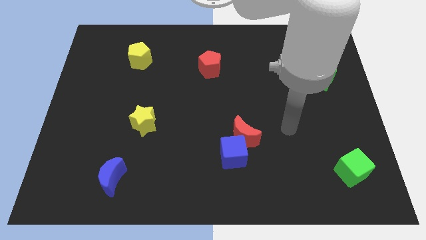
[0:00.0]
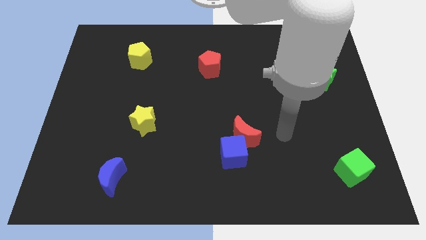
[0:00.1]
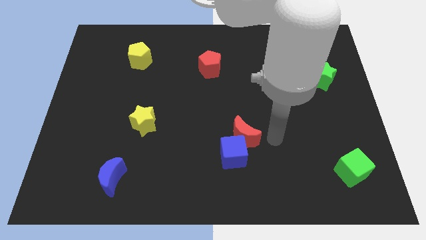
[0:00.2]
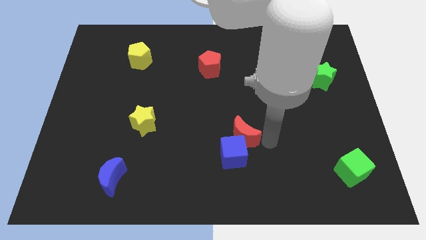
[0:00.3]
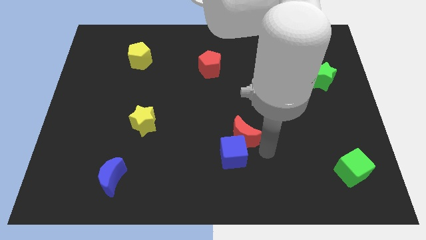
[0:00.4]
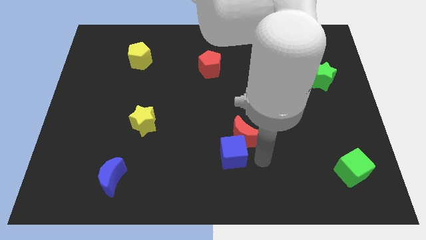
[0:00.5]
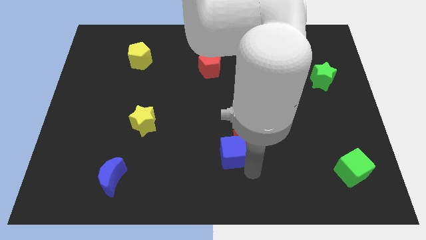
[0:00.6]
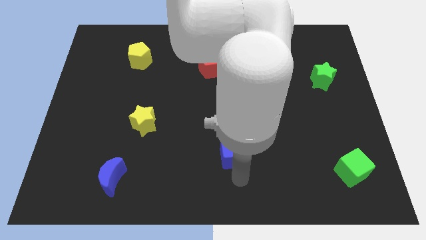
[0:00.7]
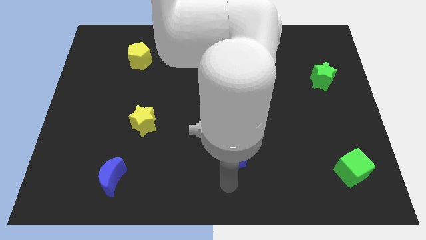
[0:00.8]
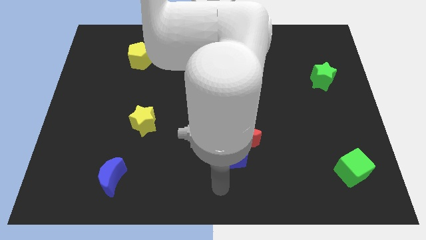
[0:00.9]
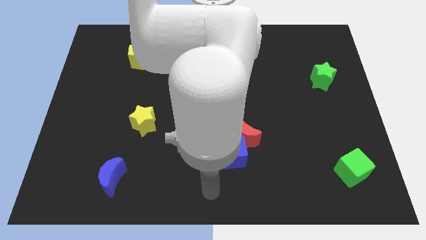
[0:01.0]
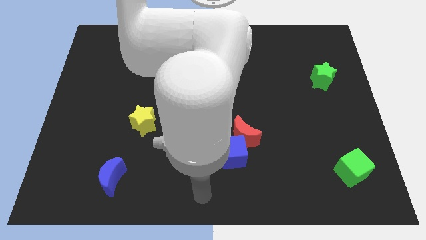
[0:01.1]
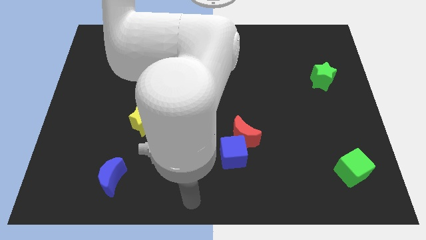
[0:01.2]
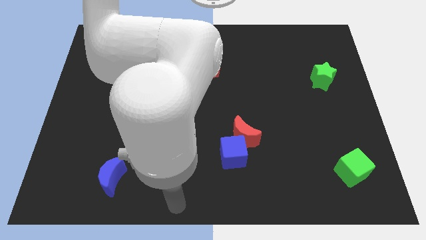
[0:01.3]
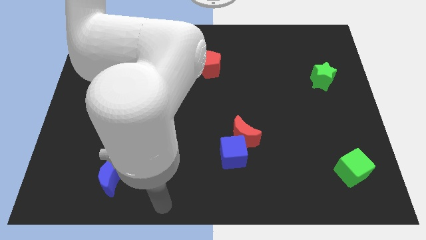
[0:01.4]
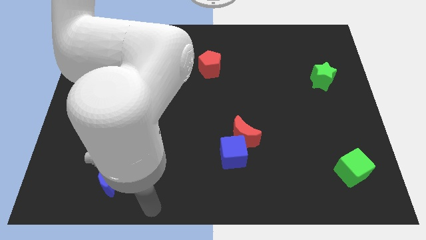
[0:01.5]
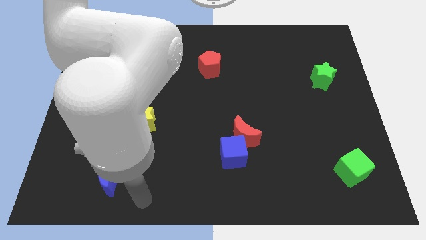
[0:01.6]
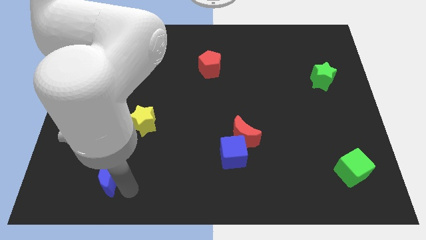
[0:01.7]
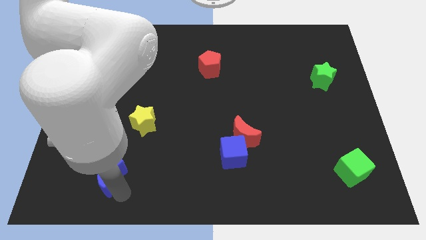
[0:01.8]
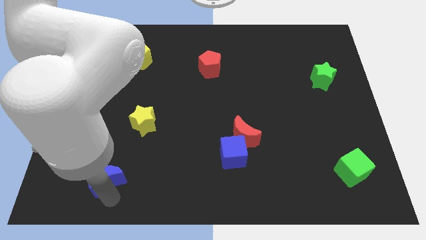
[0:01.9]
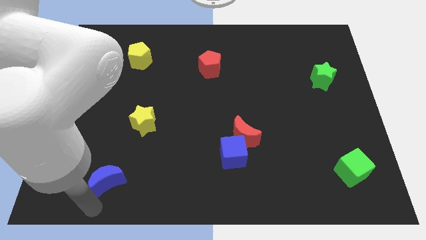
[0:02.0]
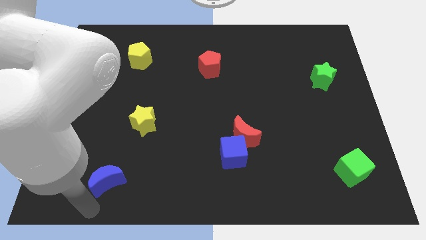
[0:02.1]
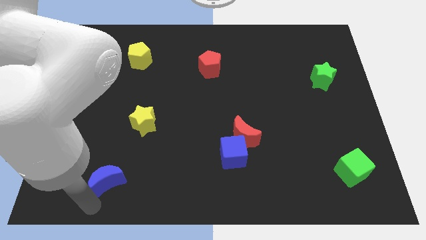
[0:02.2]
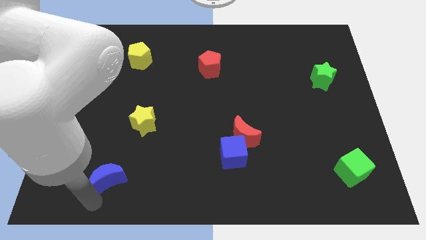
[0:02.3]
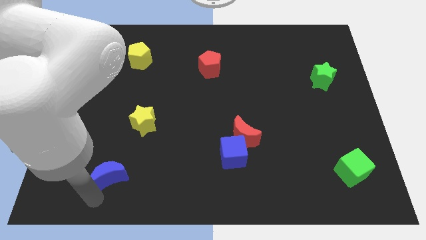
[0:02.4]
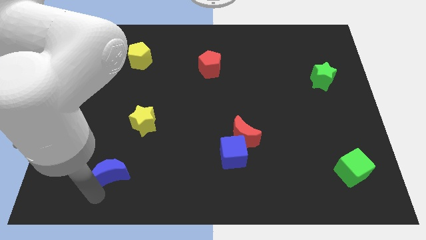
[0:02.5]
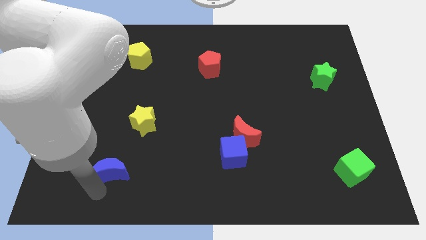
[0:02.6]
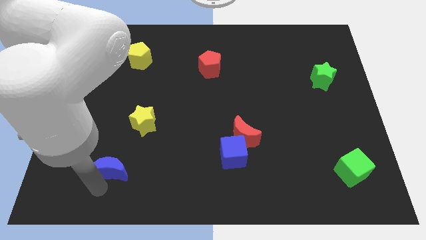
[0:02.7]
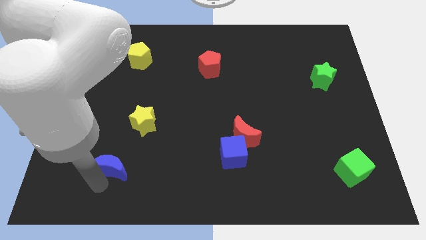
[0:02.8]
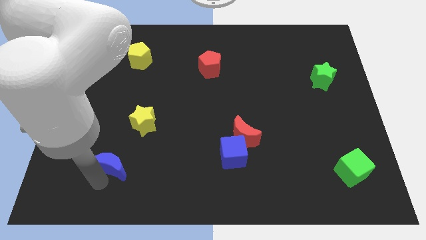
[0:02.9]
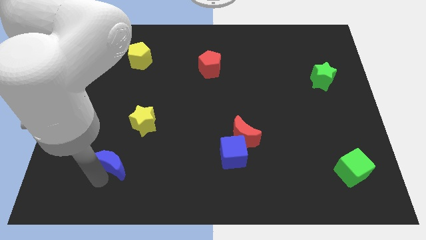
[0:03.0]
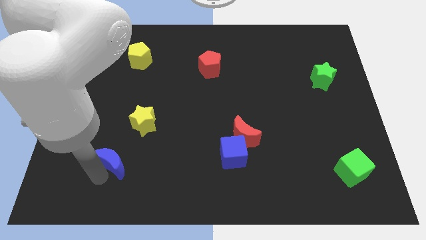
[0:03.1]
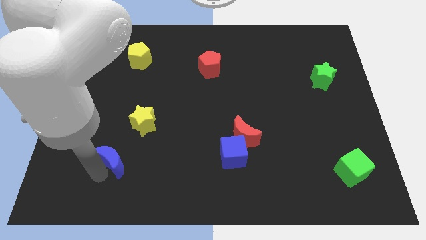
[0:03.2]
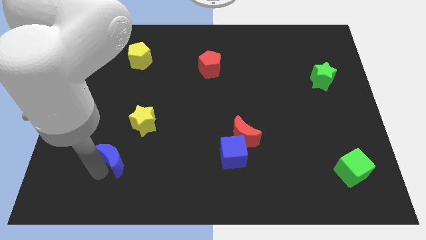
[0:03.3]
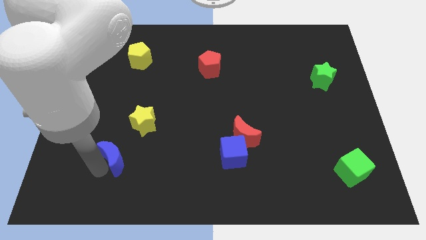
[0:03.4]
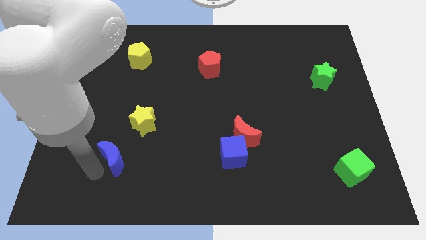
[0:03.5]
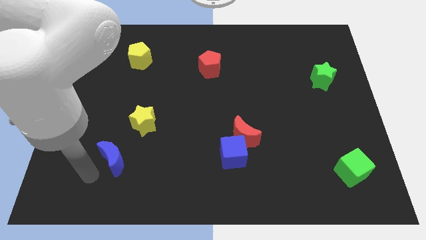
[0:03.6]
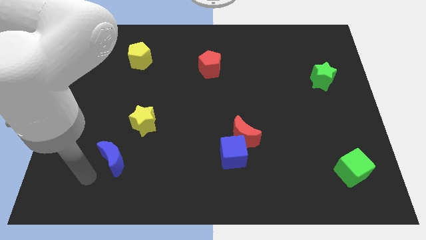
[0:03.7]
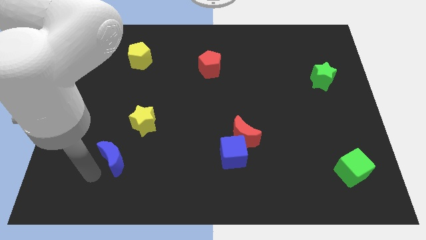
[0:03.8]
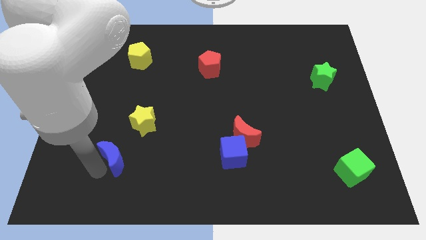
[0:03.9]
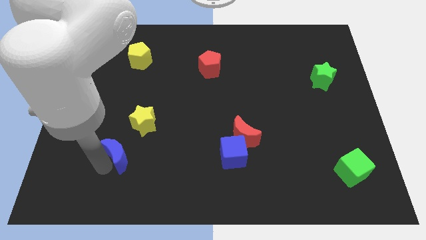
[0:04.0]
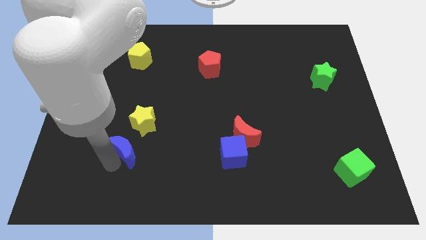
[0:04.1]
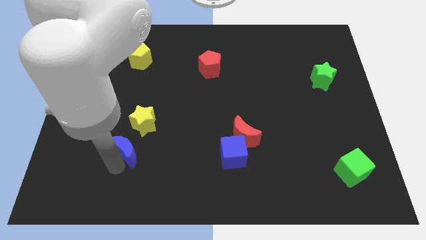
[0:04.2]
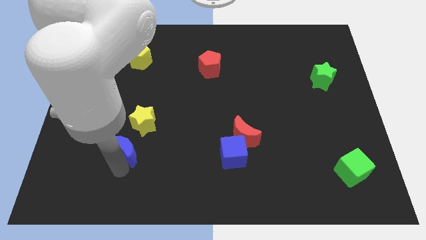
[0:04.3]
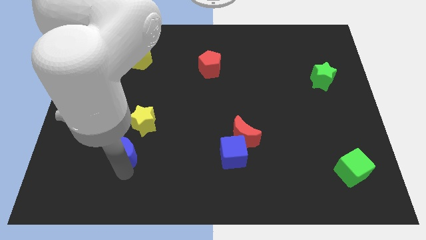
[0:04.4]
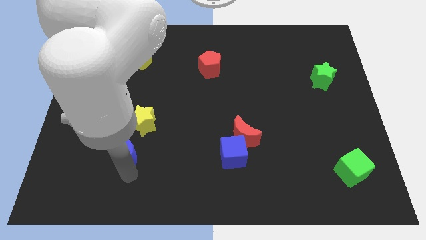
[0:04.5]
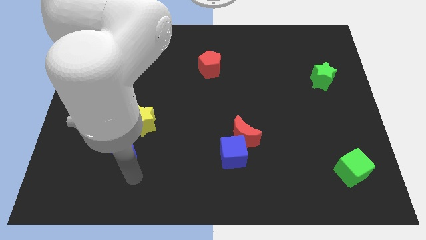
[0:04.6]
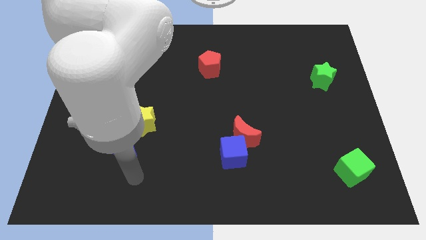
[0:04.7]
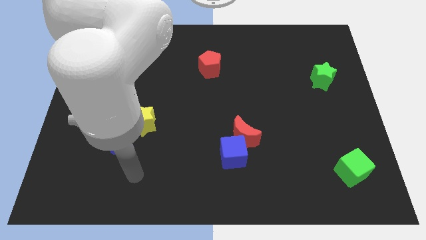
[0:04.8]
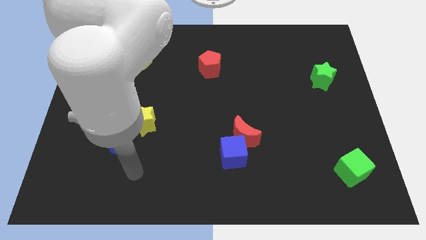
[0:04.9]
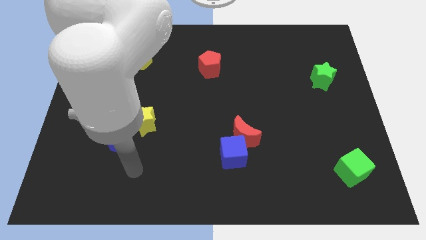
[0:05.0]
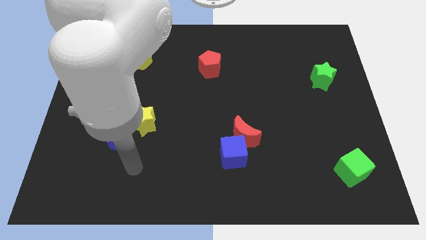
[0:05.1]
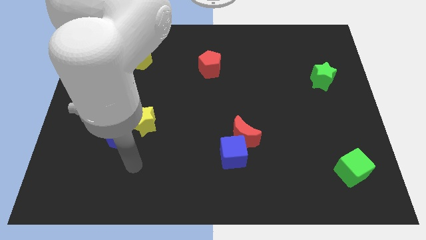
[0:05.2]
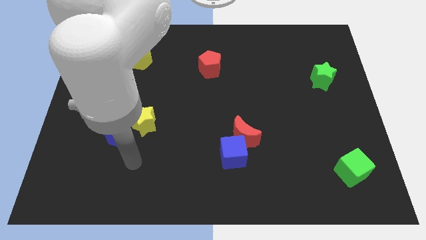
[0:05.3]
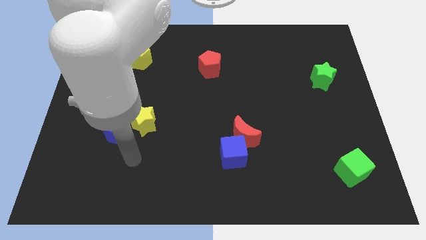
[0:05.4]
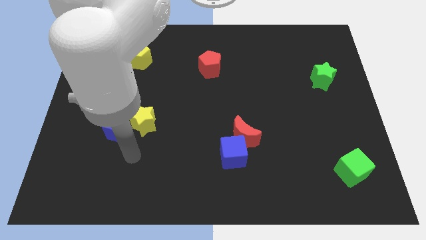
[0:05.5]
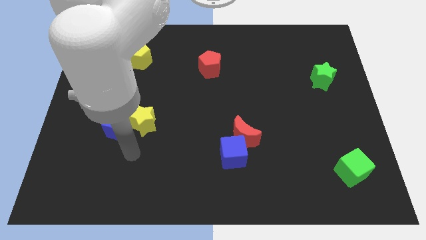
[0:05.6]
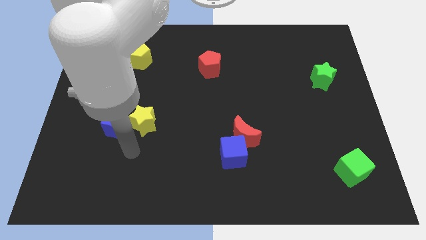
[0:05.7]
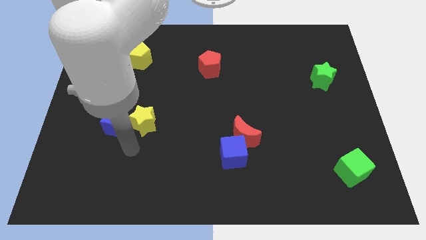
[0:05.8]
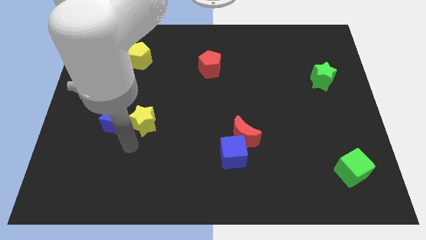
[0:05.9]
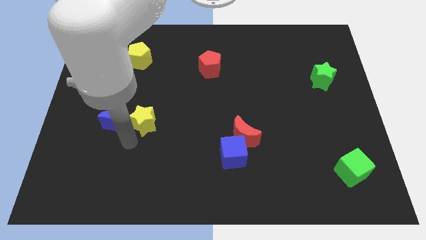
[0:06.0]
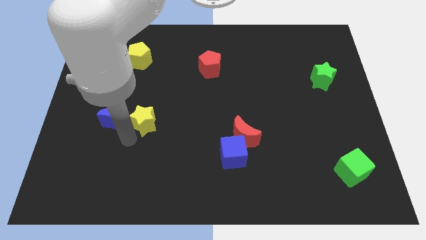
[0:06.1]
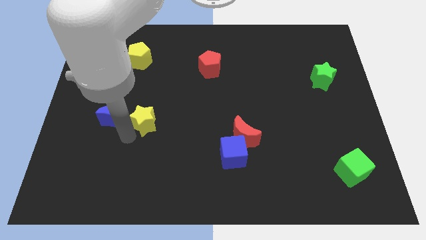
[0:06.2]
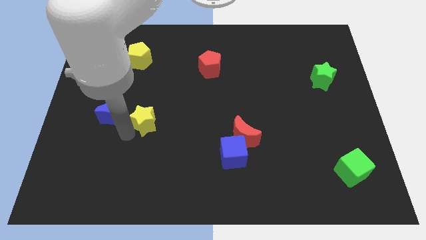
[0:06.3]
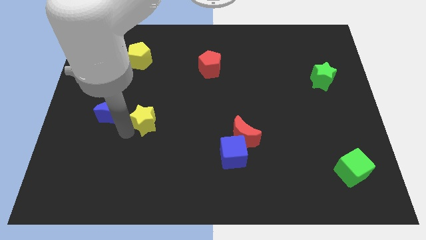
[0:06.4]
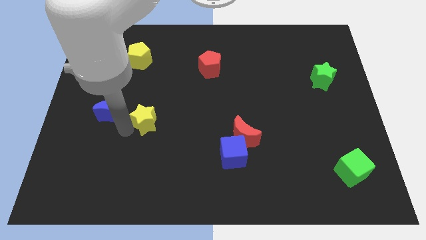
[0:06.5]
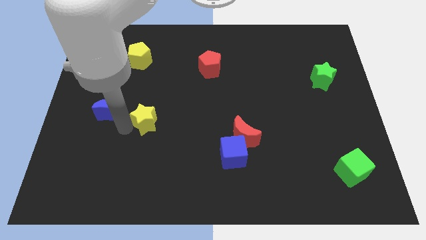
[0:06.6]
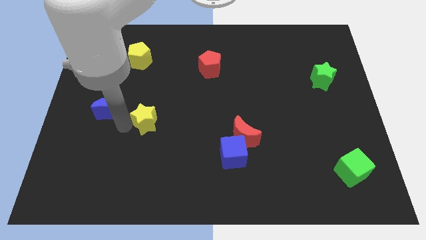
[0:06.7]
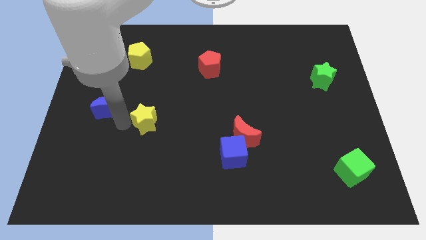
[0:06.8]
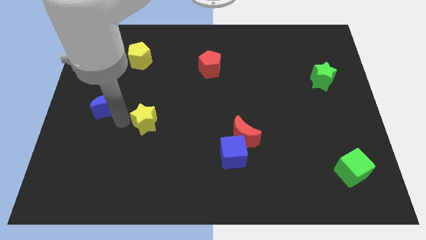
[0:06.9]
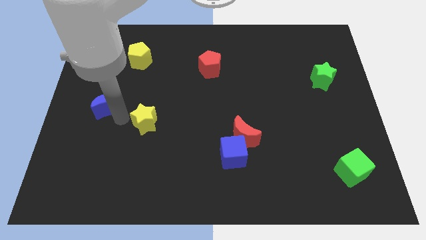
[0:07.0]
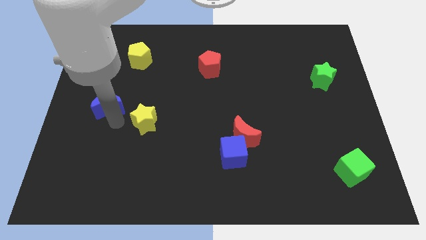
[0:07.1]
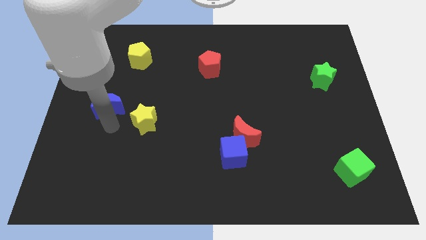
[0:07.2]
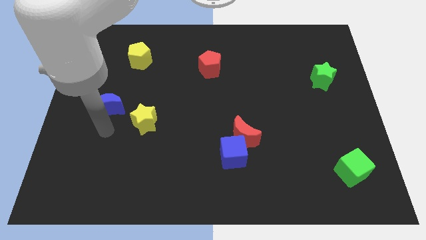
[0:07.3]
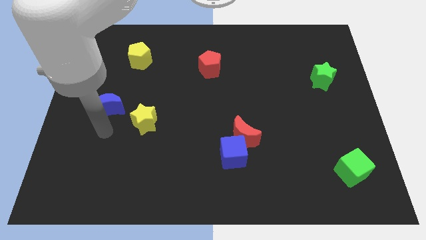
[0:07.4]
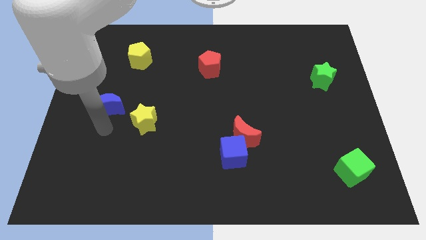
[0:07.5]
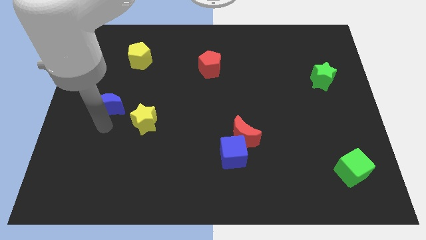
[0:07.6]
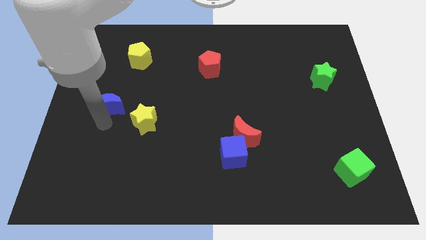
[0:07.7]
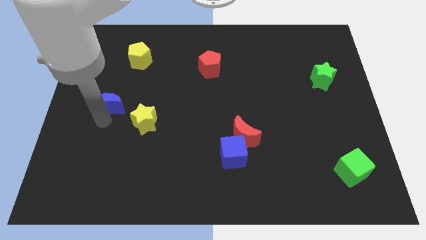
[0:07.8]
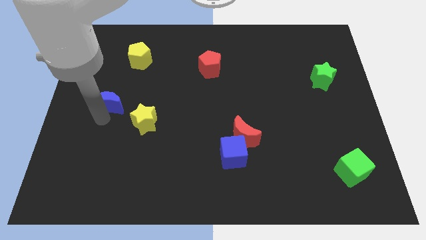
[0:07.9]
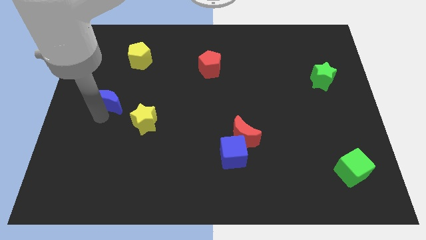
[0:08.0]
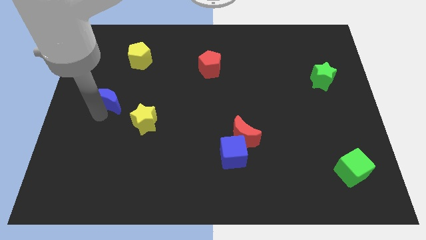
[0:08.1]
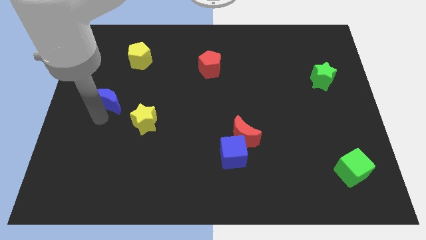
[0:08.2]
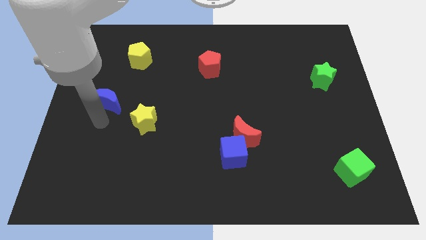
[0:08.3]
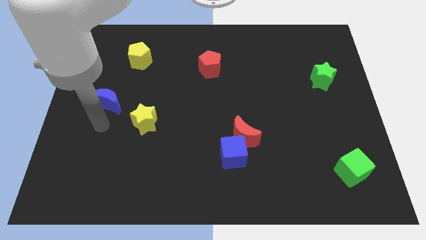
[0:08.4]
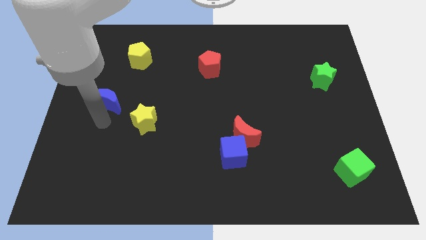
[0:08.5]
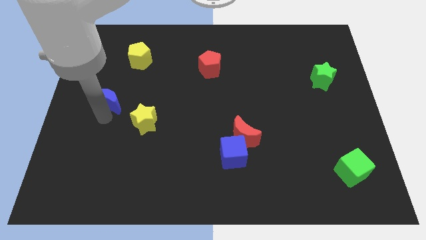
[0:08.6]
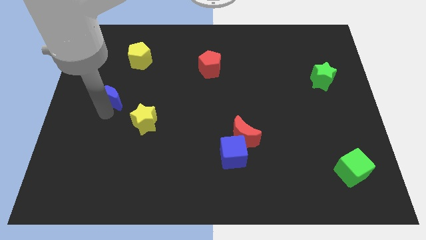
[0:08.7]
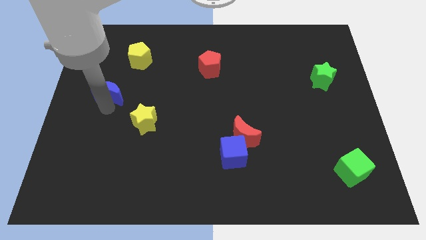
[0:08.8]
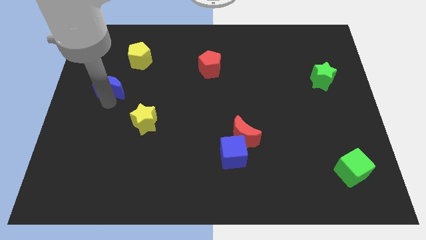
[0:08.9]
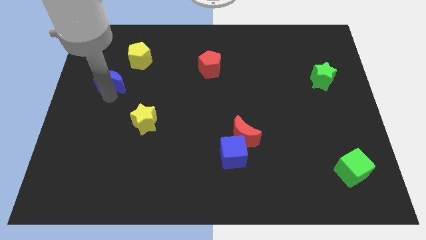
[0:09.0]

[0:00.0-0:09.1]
push the blue moon diagonally down and to the left of the yellow pentagon
